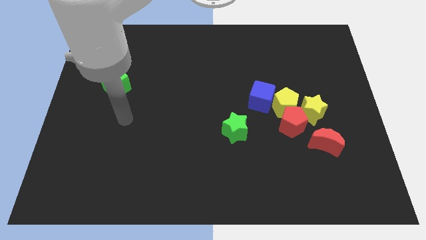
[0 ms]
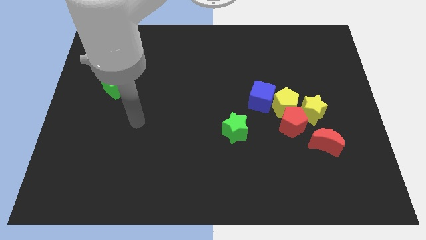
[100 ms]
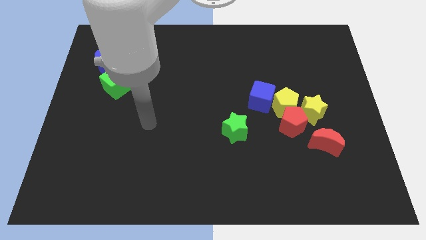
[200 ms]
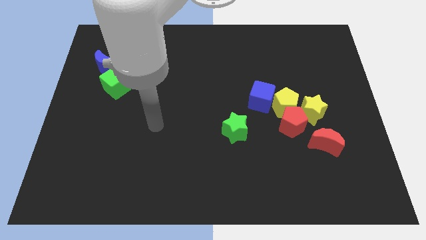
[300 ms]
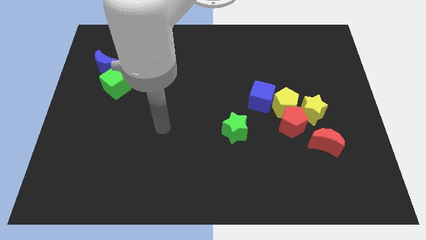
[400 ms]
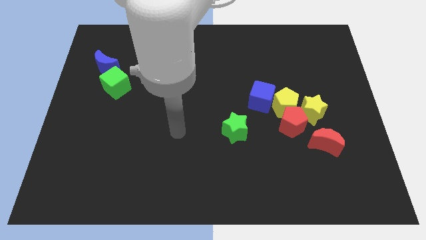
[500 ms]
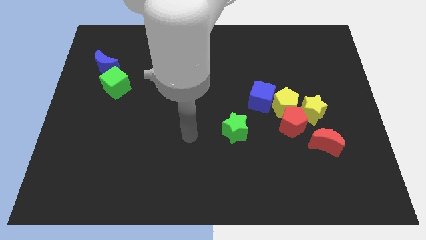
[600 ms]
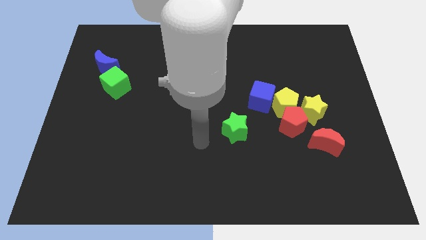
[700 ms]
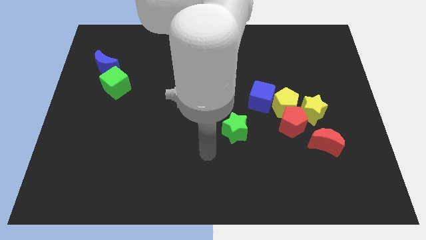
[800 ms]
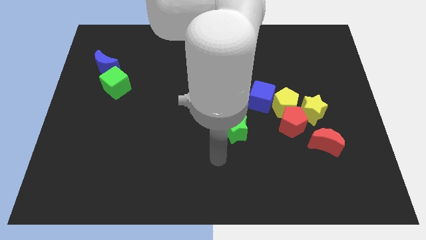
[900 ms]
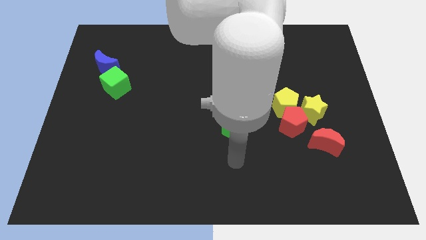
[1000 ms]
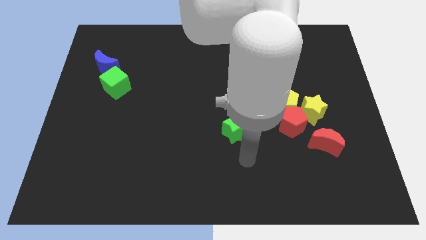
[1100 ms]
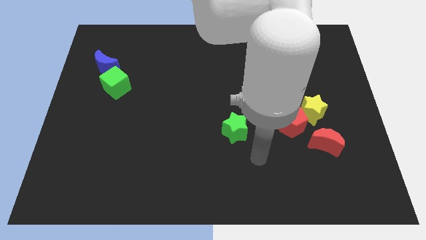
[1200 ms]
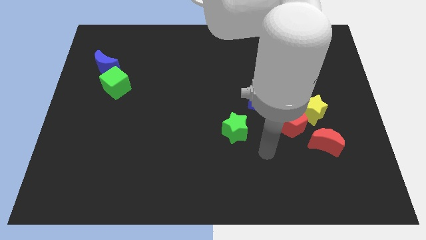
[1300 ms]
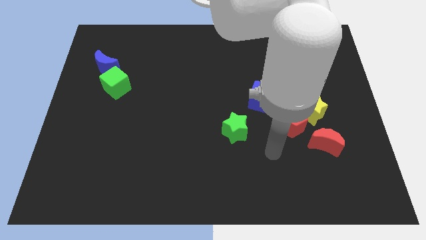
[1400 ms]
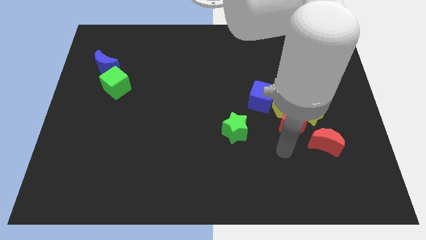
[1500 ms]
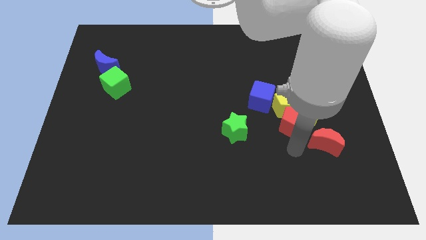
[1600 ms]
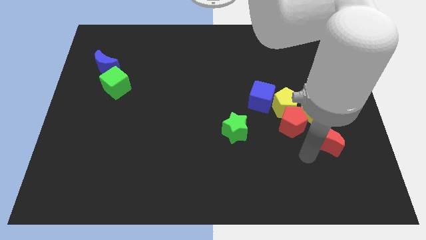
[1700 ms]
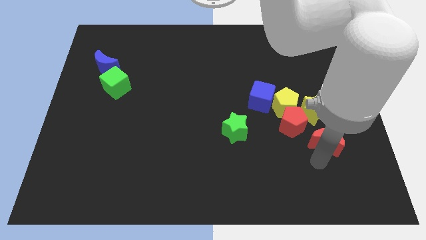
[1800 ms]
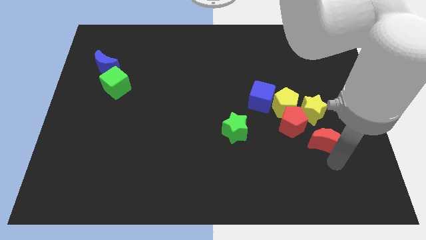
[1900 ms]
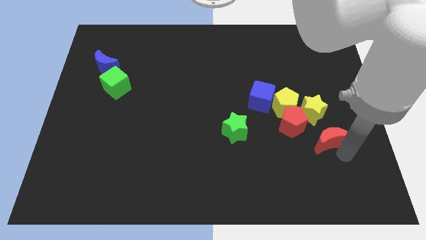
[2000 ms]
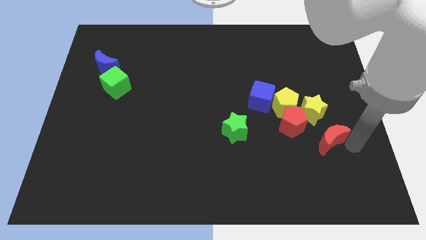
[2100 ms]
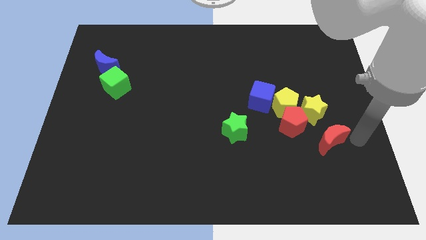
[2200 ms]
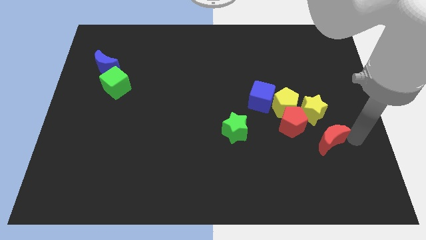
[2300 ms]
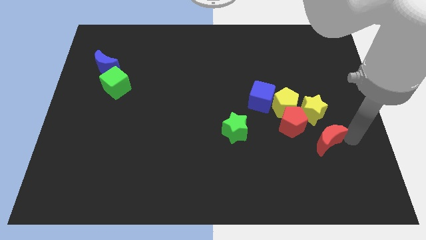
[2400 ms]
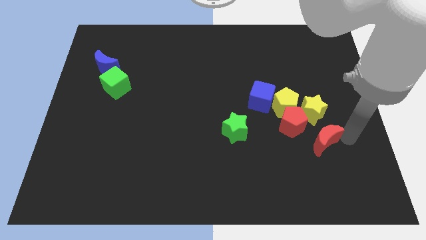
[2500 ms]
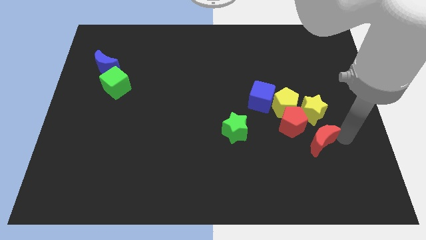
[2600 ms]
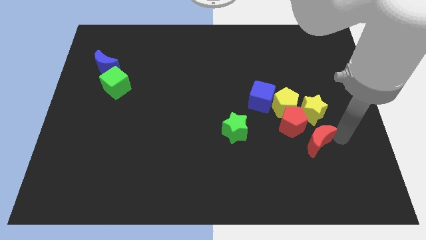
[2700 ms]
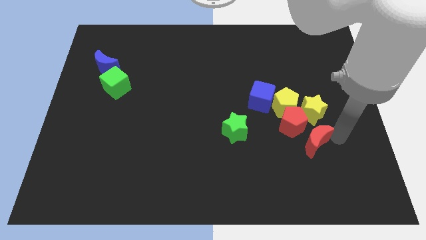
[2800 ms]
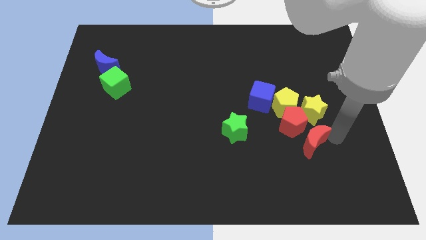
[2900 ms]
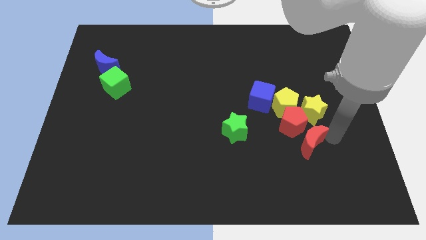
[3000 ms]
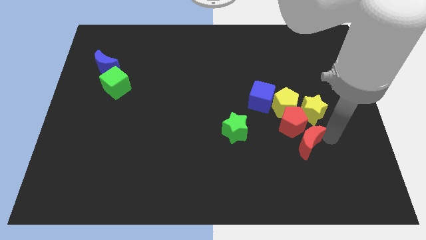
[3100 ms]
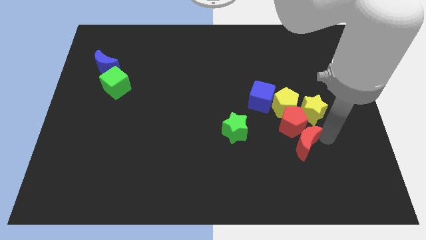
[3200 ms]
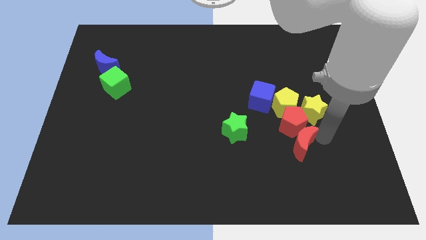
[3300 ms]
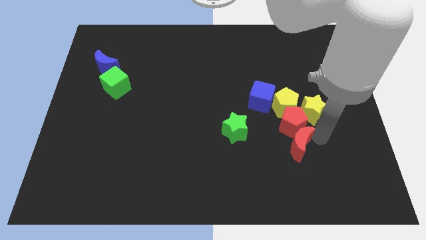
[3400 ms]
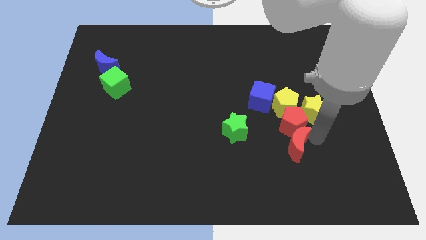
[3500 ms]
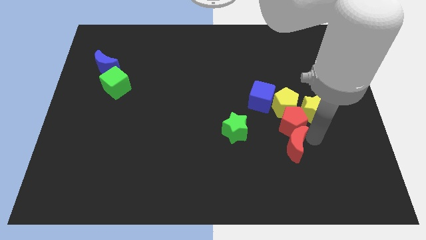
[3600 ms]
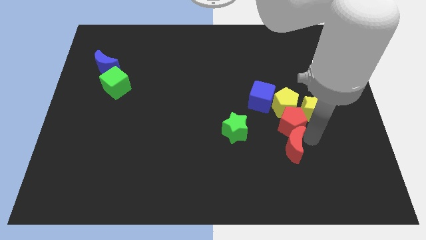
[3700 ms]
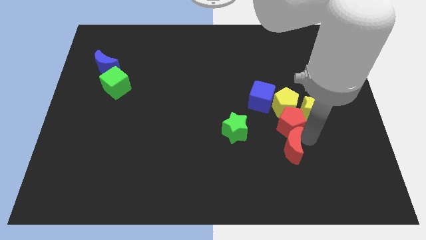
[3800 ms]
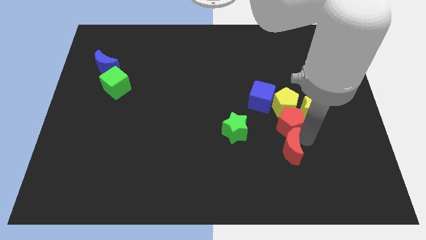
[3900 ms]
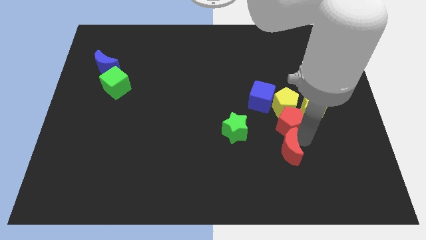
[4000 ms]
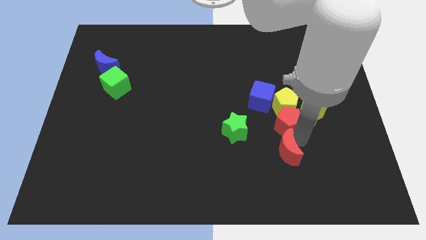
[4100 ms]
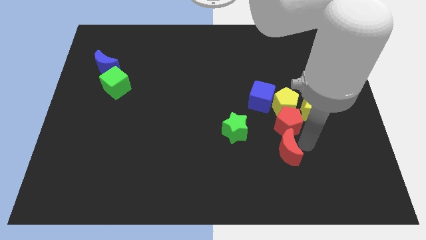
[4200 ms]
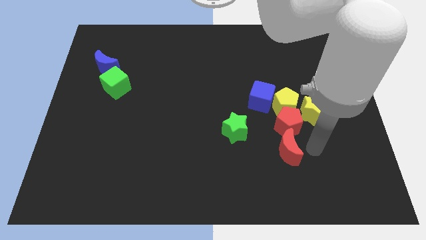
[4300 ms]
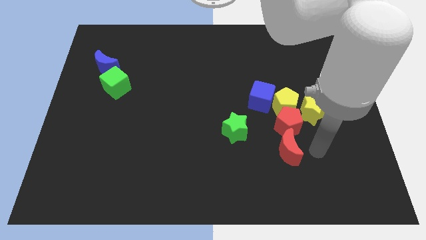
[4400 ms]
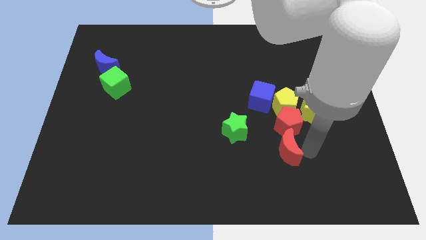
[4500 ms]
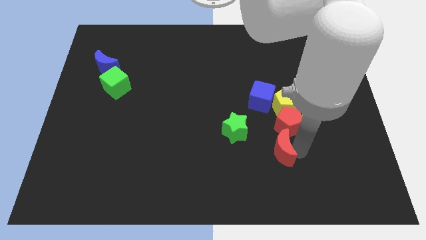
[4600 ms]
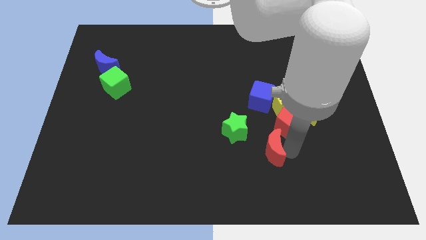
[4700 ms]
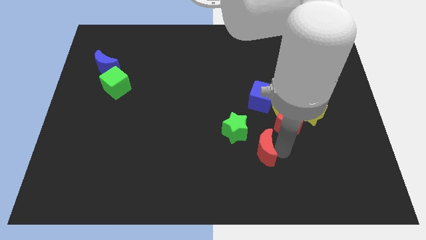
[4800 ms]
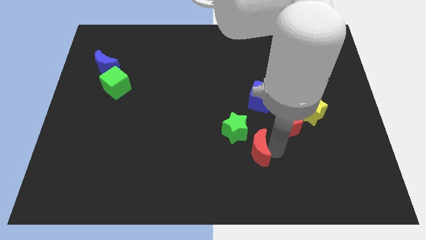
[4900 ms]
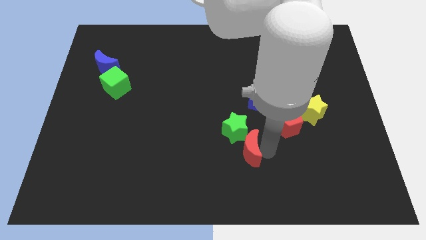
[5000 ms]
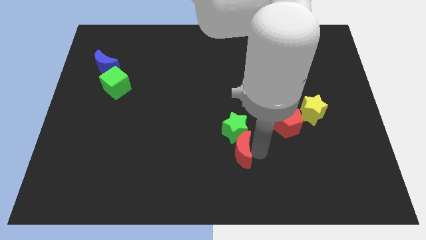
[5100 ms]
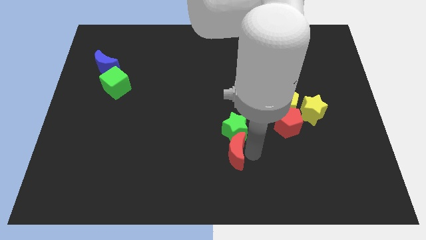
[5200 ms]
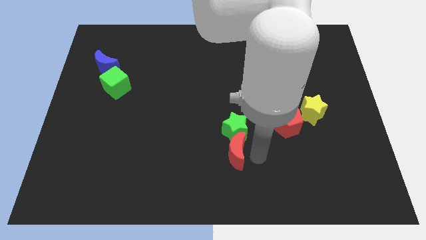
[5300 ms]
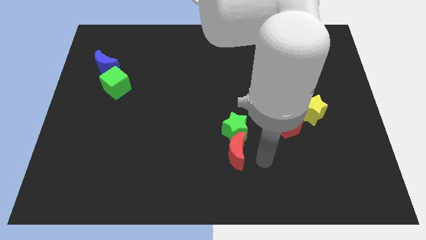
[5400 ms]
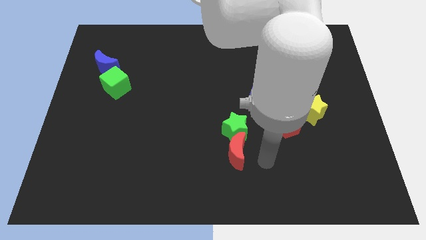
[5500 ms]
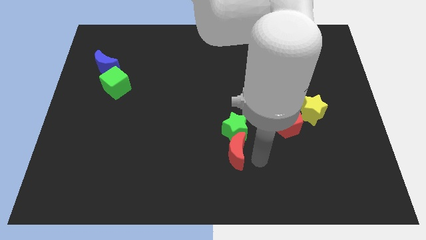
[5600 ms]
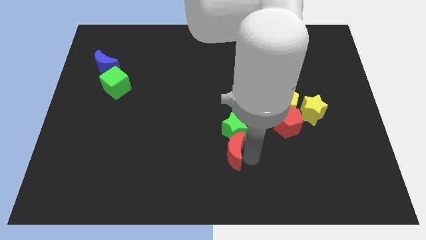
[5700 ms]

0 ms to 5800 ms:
slide the red moon left

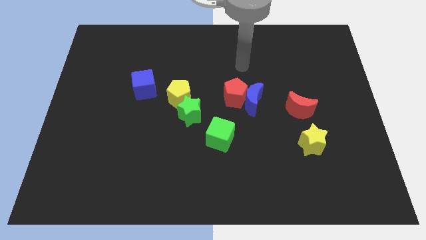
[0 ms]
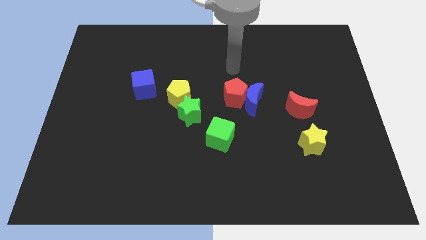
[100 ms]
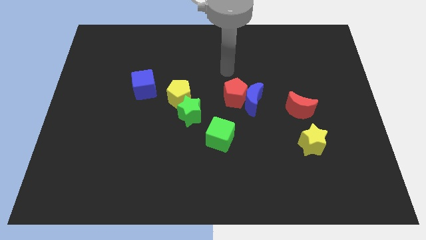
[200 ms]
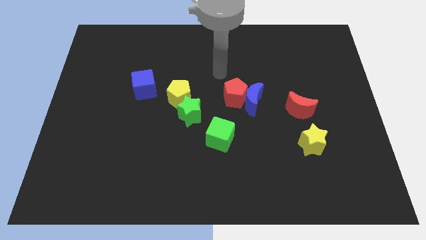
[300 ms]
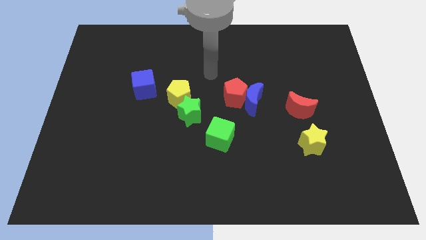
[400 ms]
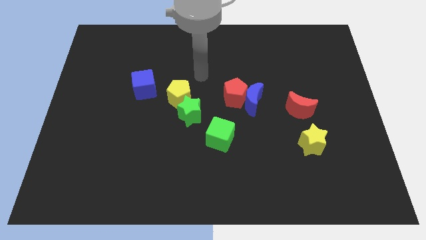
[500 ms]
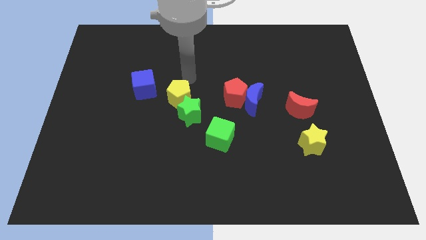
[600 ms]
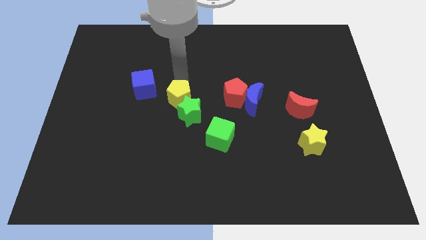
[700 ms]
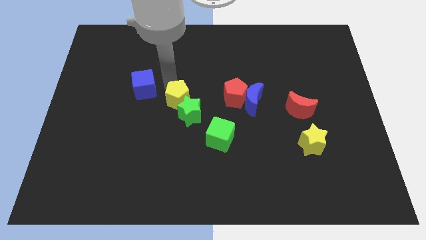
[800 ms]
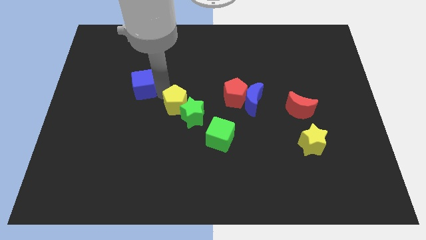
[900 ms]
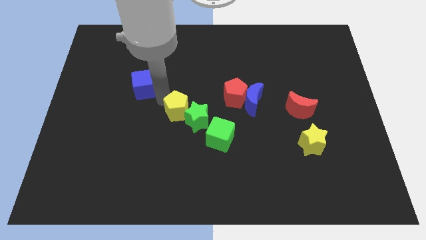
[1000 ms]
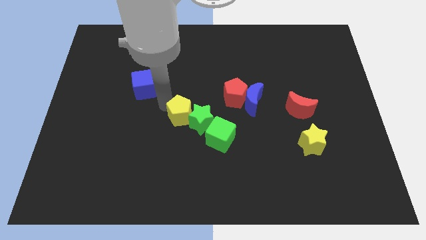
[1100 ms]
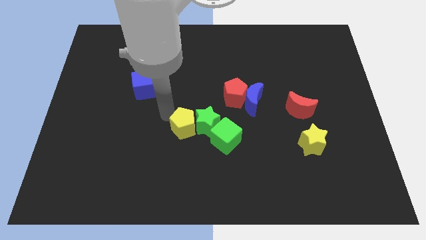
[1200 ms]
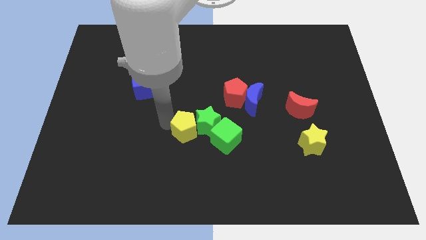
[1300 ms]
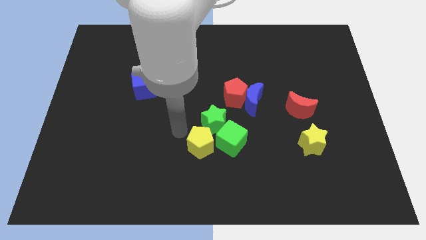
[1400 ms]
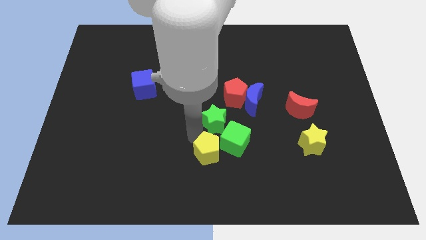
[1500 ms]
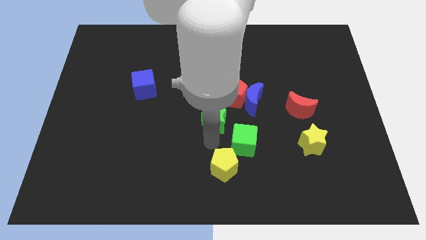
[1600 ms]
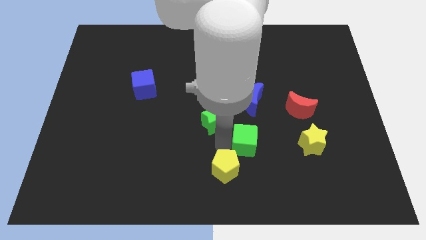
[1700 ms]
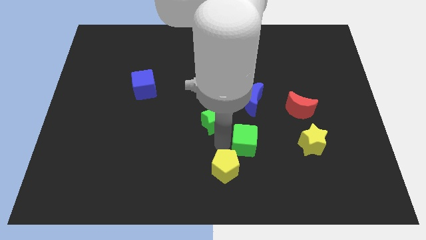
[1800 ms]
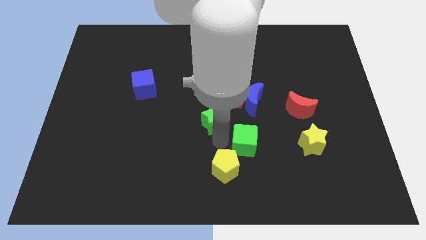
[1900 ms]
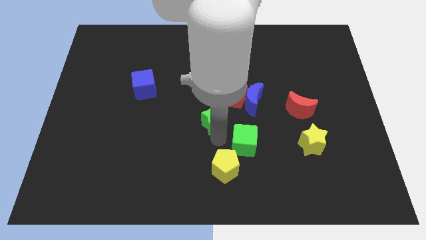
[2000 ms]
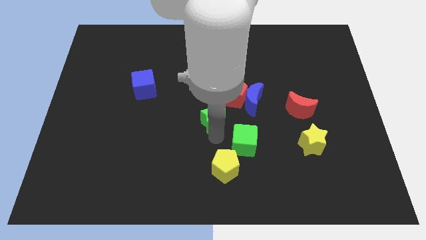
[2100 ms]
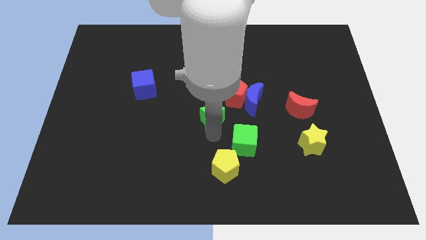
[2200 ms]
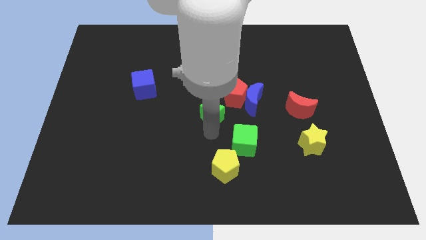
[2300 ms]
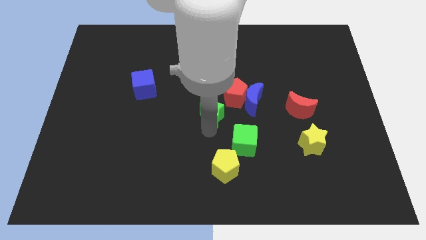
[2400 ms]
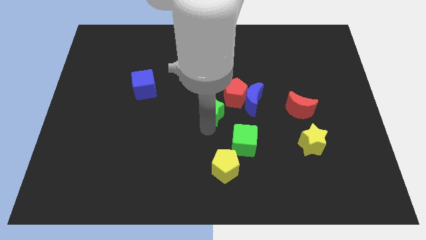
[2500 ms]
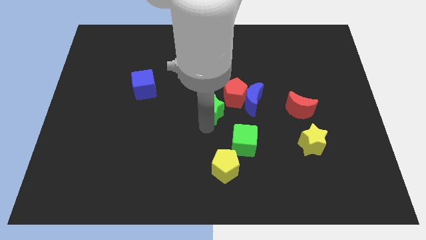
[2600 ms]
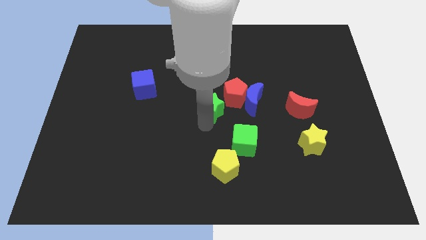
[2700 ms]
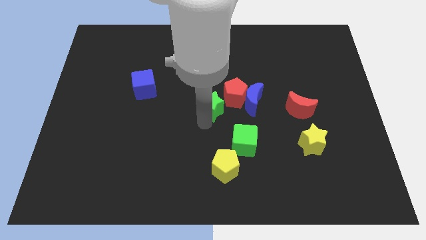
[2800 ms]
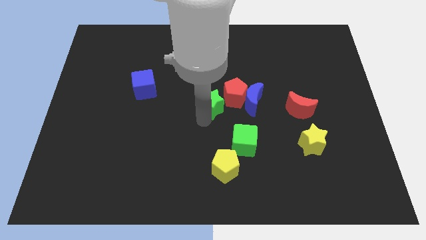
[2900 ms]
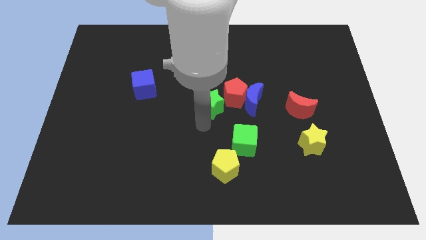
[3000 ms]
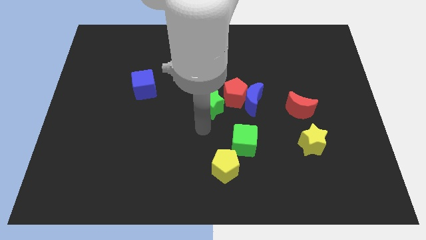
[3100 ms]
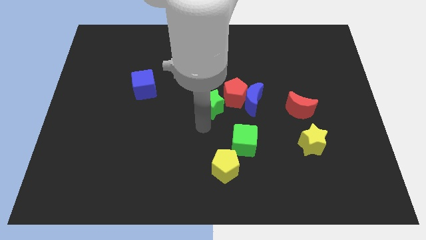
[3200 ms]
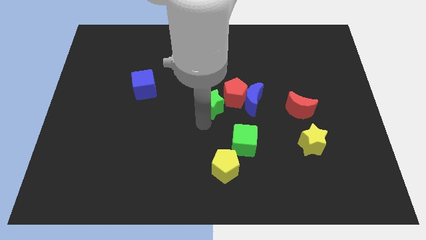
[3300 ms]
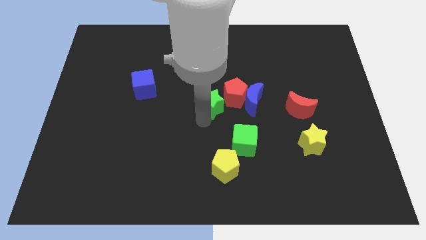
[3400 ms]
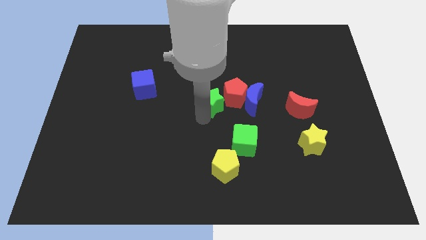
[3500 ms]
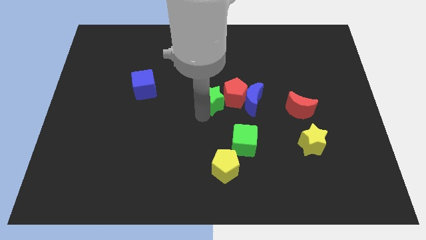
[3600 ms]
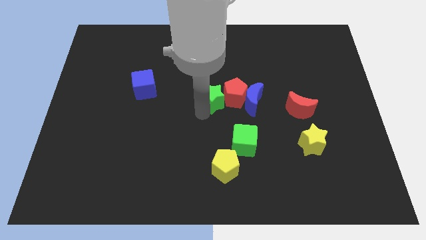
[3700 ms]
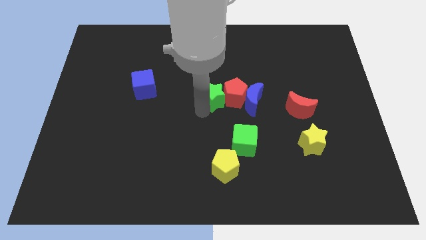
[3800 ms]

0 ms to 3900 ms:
move the green star up and right diagonally slightly
